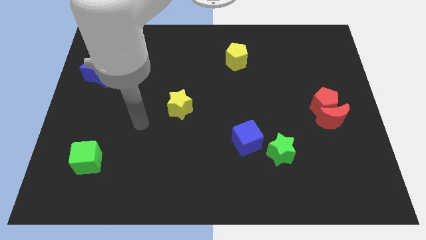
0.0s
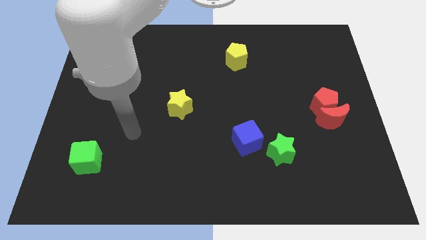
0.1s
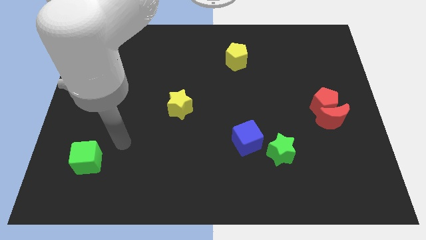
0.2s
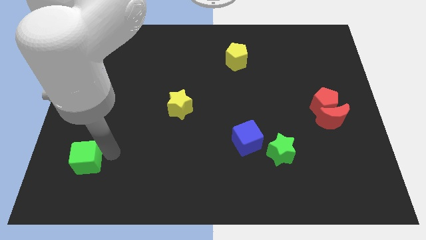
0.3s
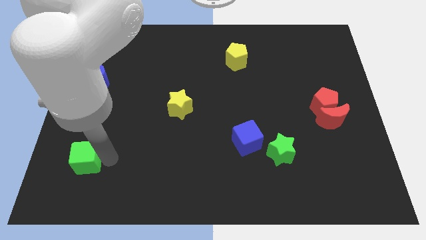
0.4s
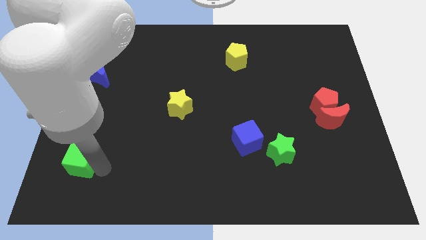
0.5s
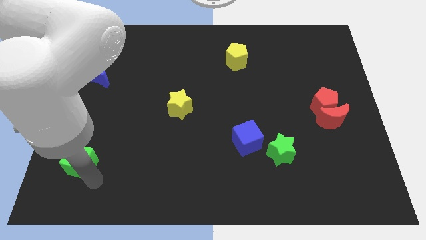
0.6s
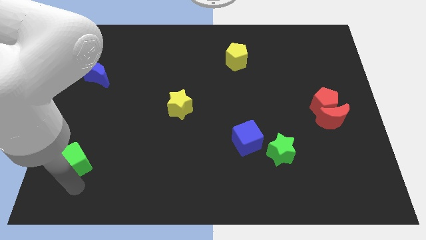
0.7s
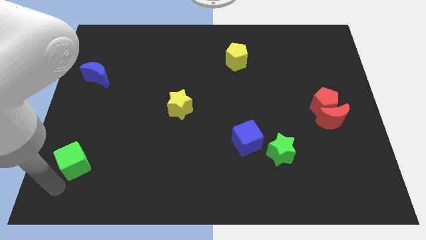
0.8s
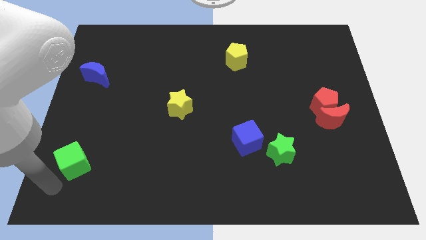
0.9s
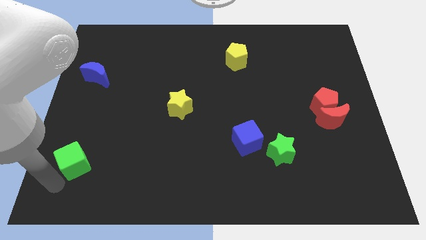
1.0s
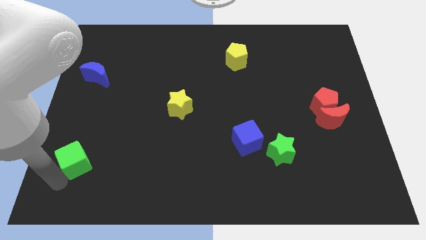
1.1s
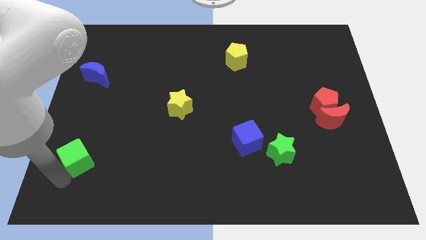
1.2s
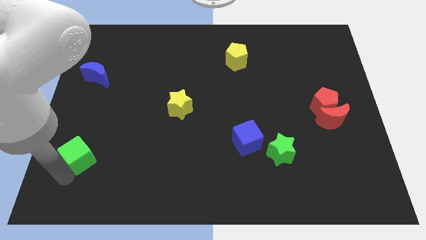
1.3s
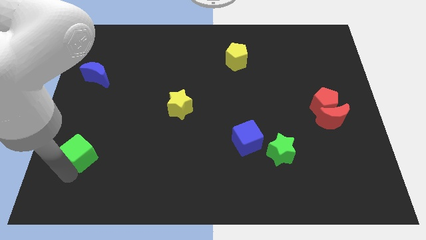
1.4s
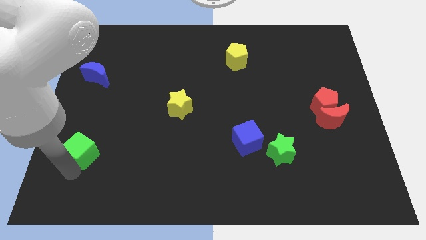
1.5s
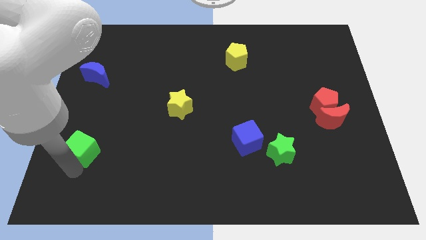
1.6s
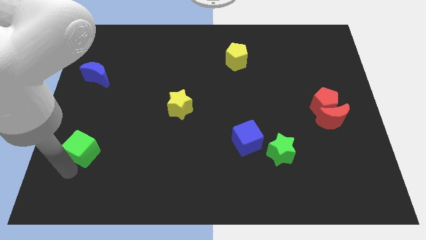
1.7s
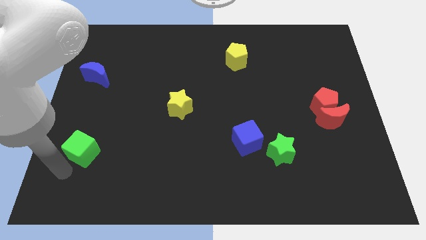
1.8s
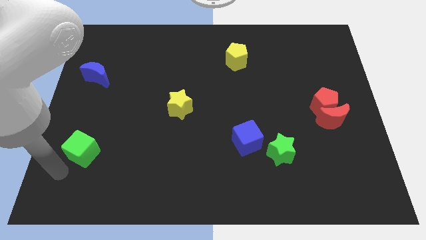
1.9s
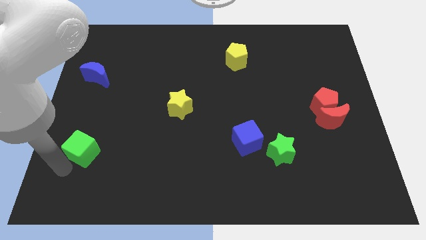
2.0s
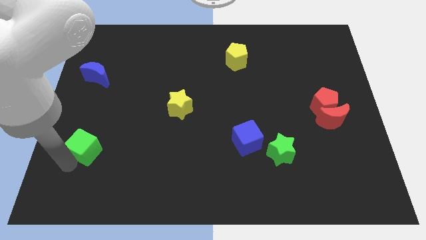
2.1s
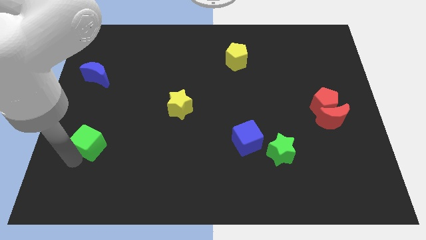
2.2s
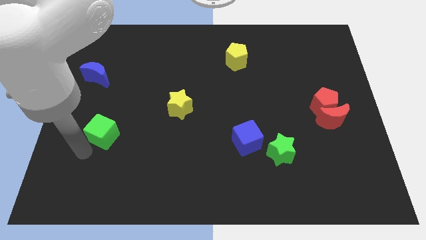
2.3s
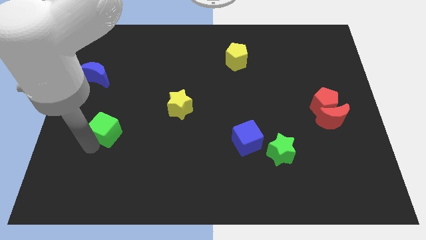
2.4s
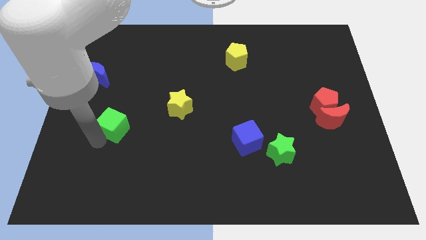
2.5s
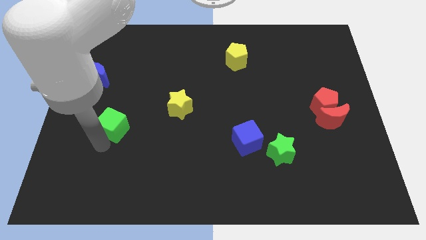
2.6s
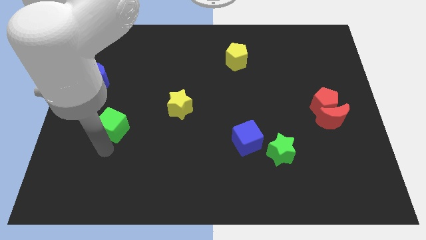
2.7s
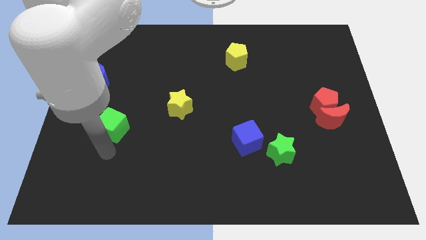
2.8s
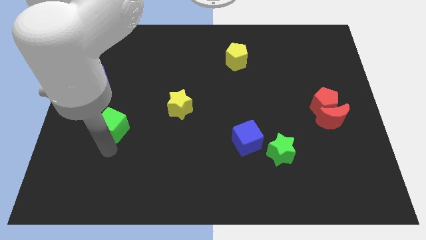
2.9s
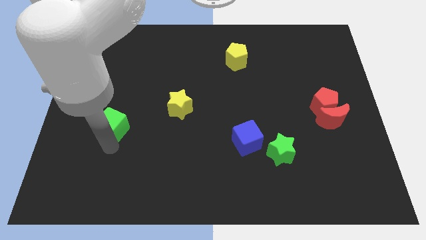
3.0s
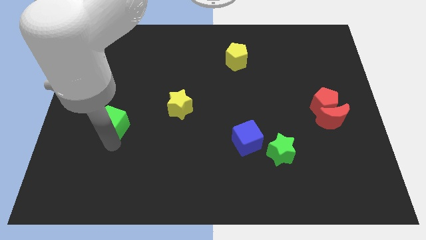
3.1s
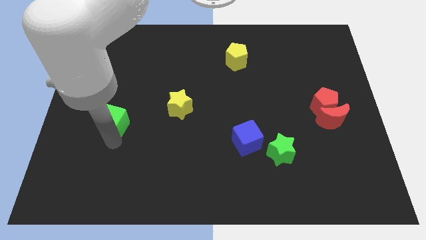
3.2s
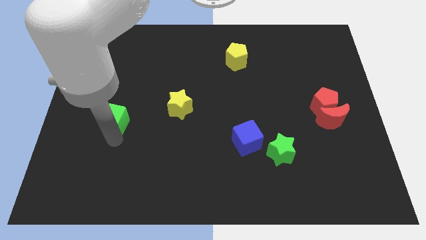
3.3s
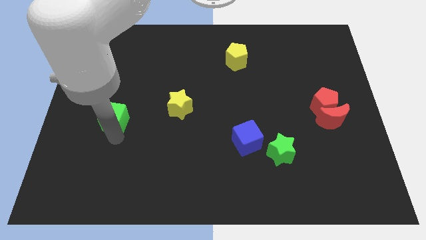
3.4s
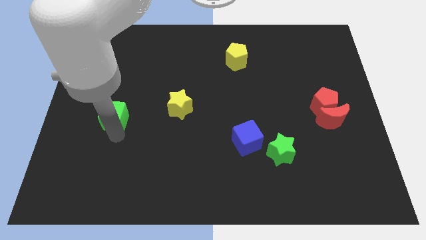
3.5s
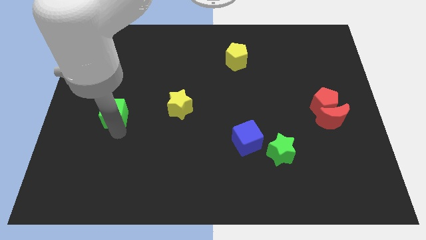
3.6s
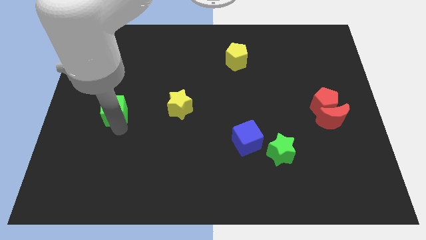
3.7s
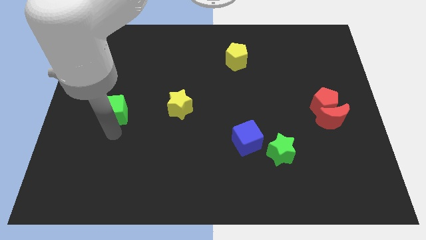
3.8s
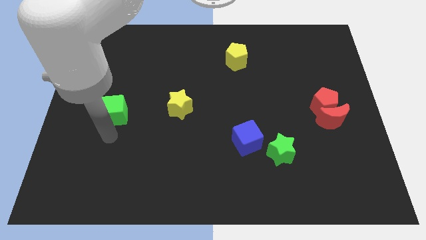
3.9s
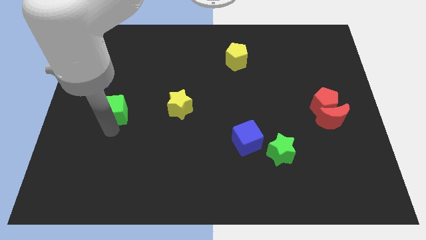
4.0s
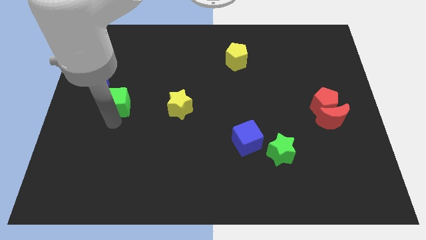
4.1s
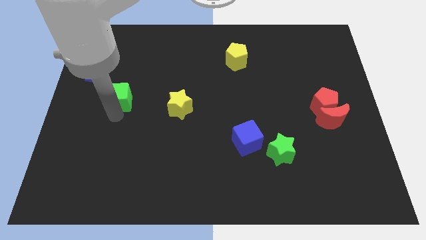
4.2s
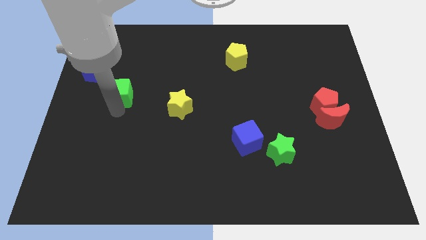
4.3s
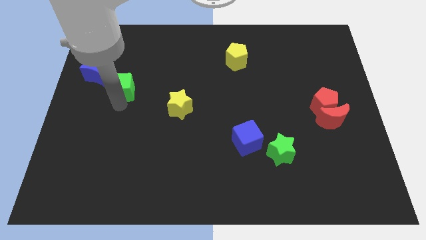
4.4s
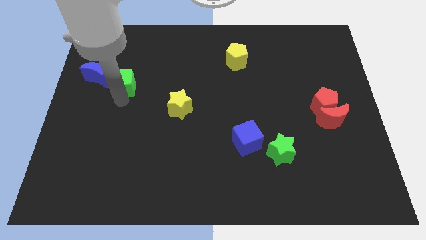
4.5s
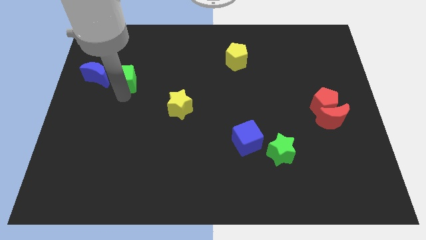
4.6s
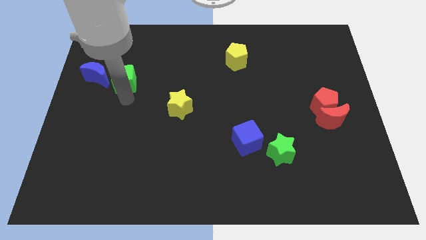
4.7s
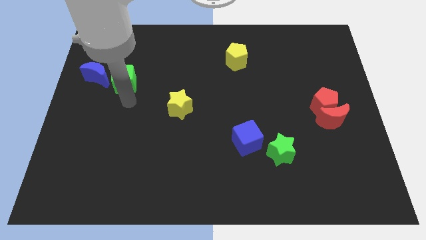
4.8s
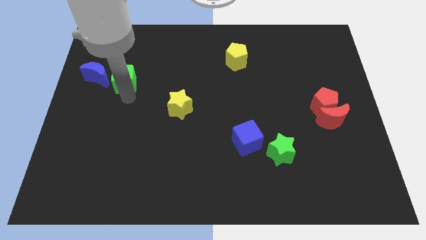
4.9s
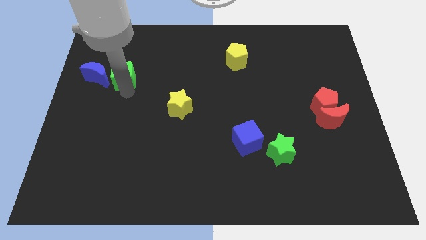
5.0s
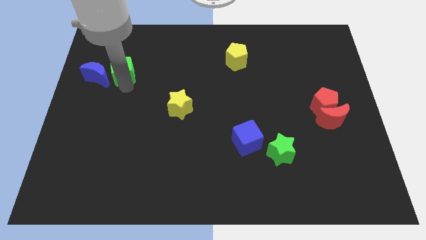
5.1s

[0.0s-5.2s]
slide the green cube to the top right side of the blue moon

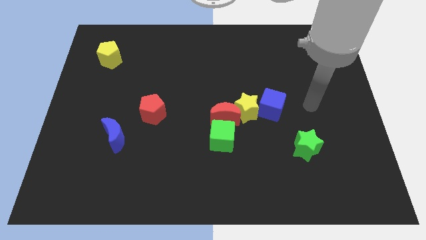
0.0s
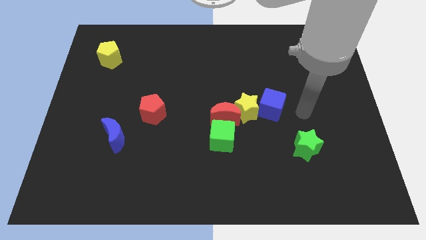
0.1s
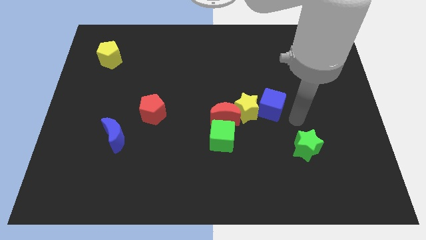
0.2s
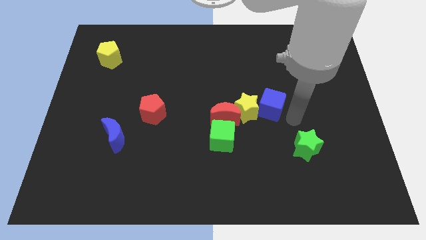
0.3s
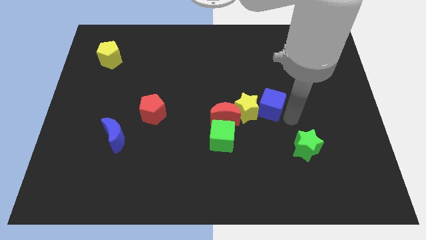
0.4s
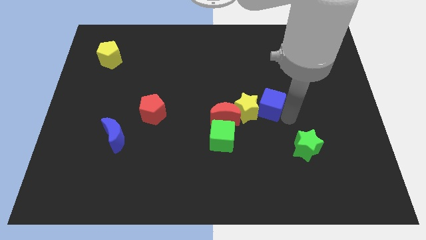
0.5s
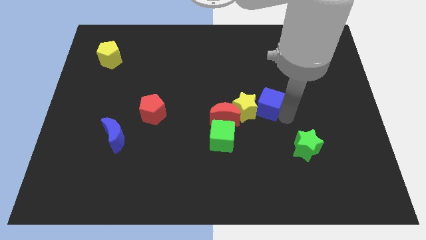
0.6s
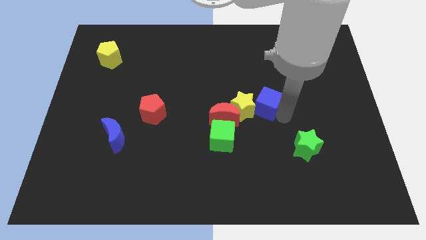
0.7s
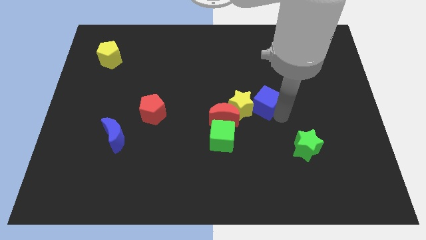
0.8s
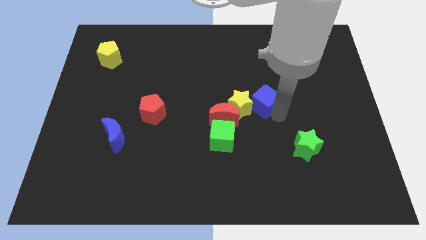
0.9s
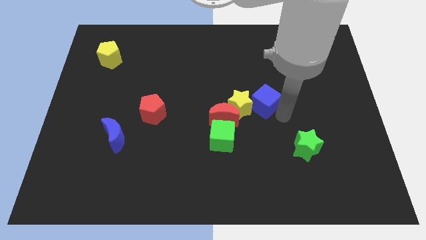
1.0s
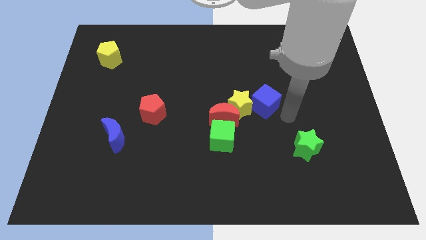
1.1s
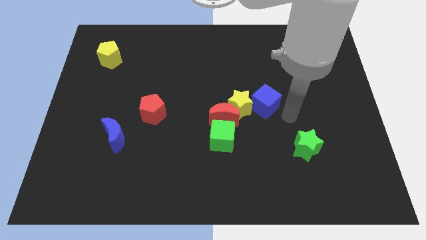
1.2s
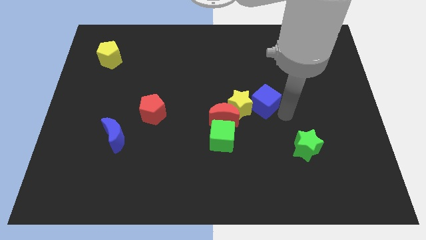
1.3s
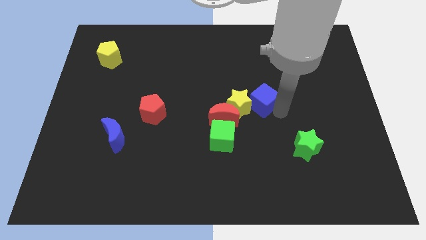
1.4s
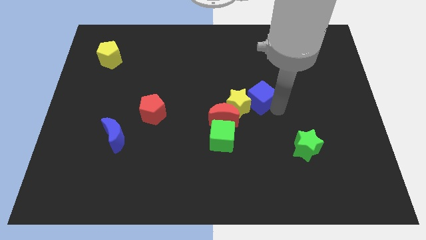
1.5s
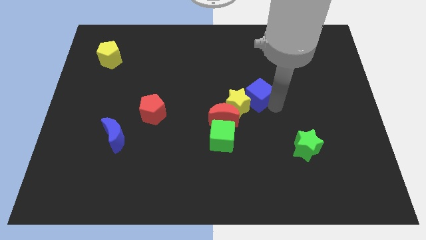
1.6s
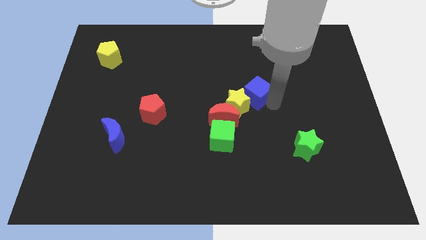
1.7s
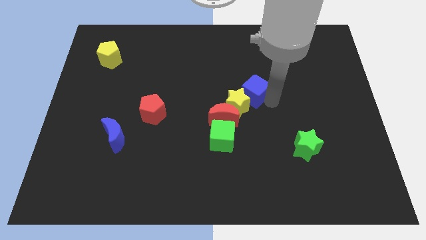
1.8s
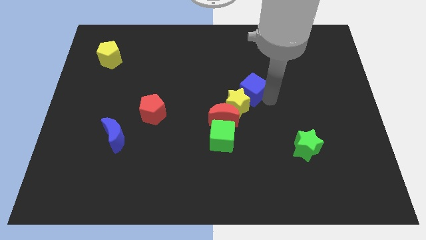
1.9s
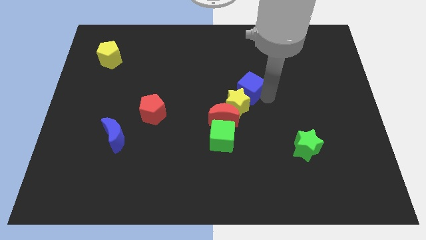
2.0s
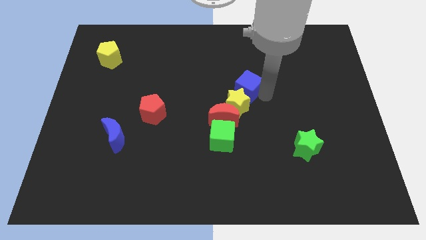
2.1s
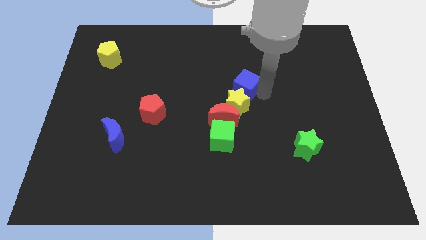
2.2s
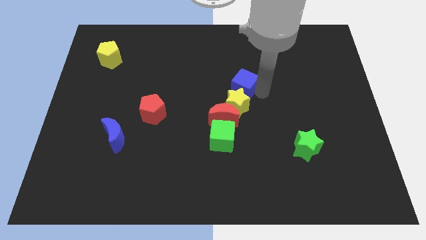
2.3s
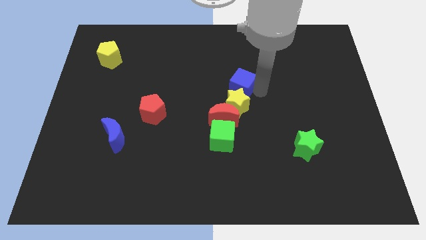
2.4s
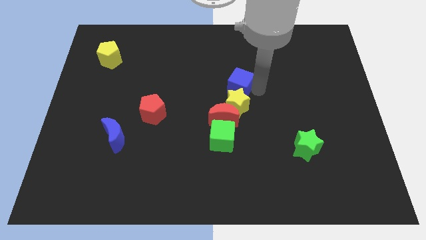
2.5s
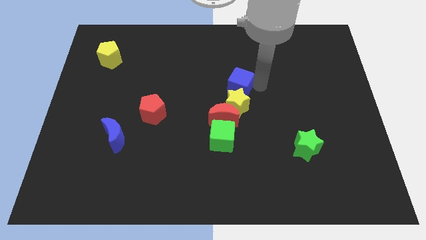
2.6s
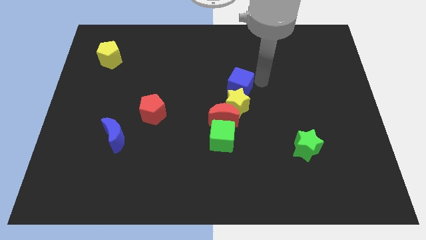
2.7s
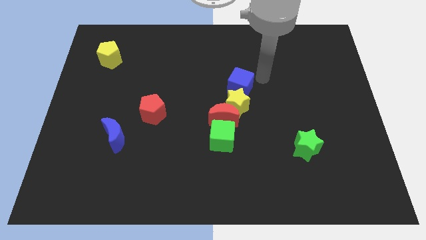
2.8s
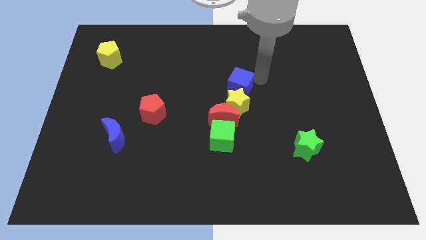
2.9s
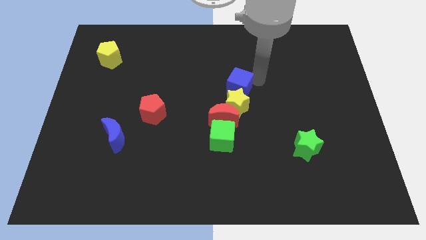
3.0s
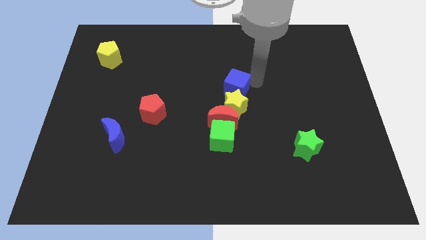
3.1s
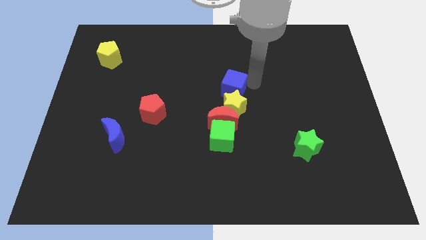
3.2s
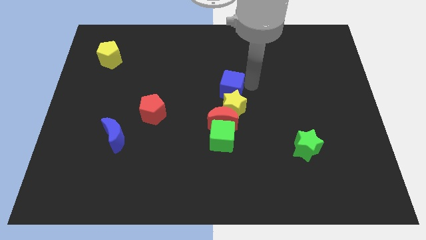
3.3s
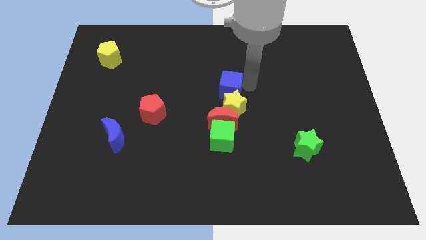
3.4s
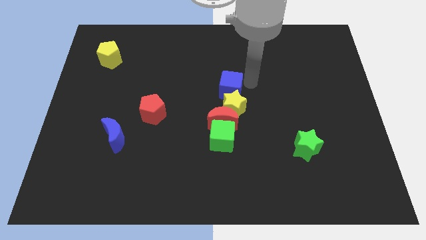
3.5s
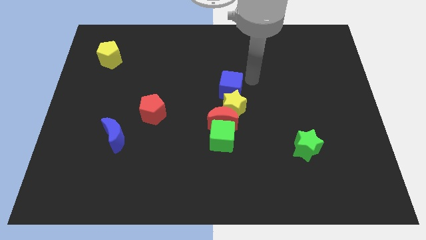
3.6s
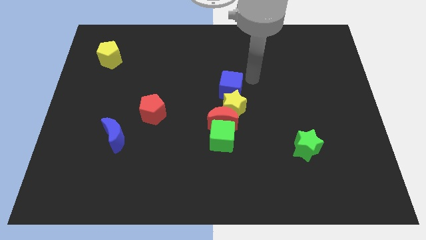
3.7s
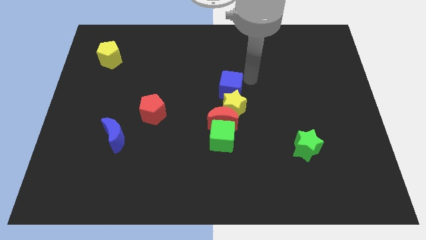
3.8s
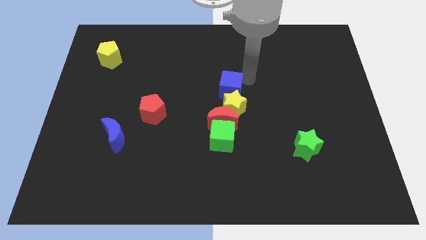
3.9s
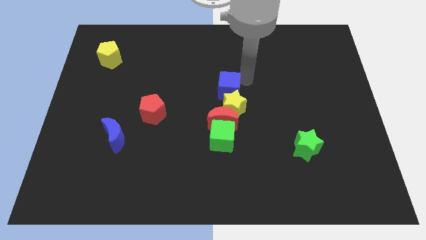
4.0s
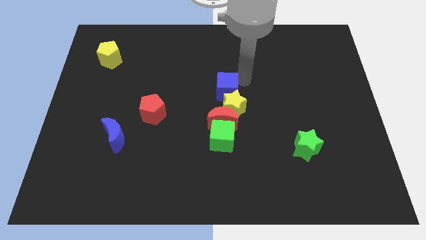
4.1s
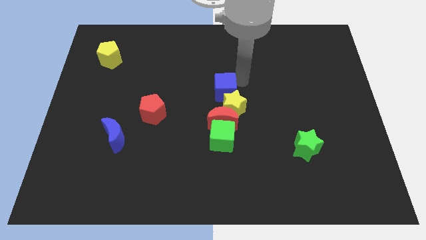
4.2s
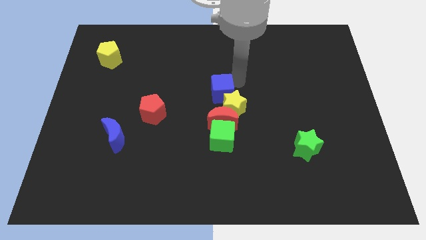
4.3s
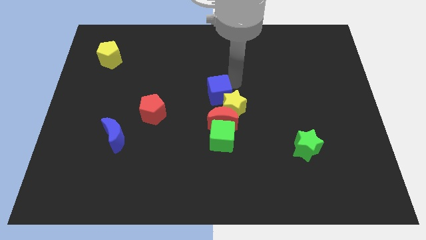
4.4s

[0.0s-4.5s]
slide the blue cube left of the yellow star
